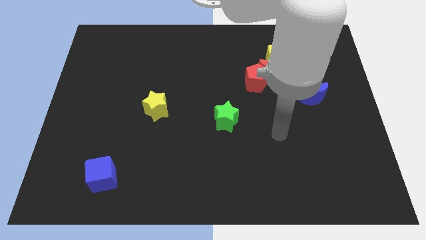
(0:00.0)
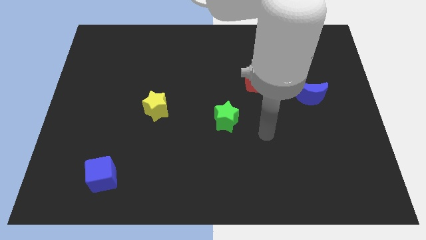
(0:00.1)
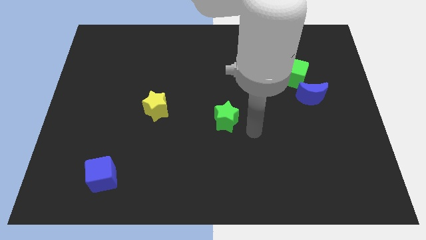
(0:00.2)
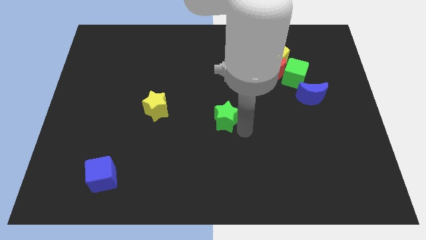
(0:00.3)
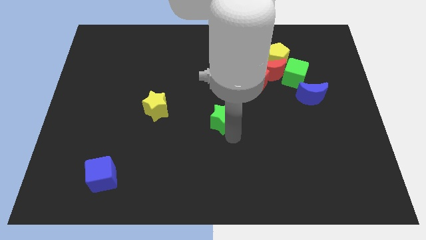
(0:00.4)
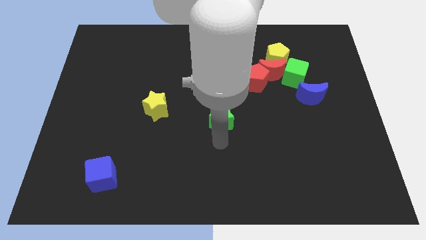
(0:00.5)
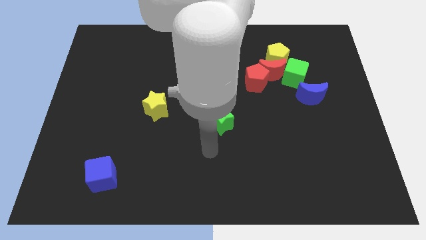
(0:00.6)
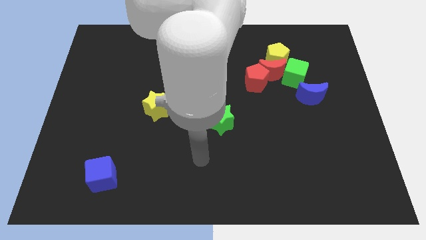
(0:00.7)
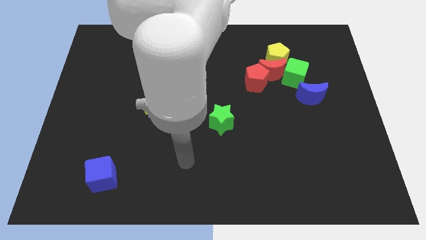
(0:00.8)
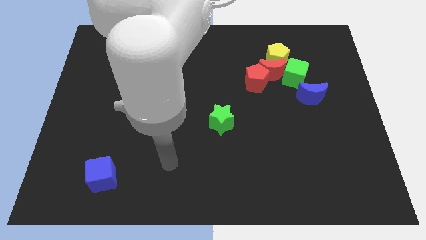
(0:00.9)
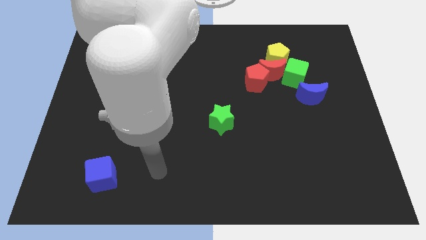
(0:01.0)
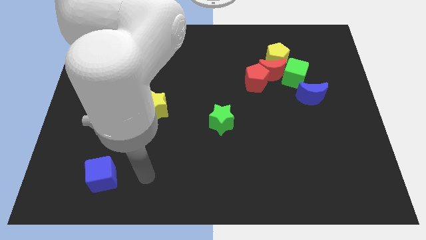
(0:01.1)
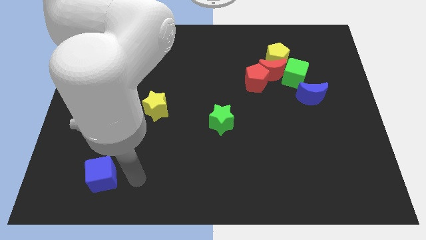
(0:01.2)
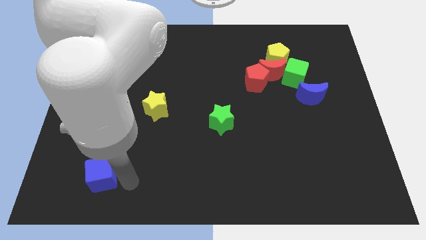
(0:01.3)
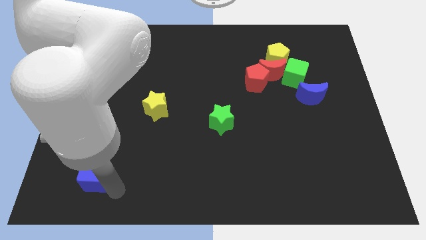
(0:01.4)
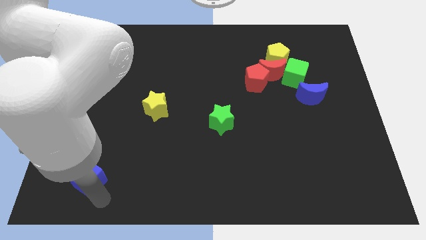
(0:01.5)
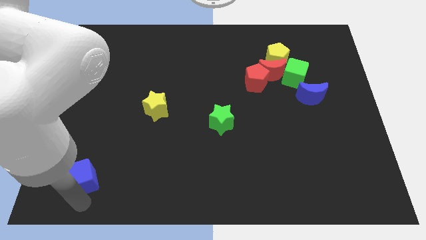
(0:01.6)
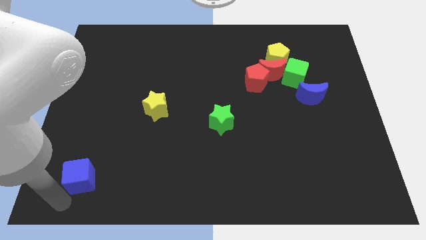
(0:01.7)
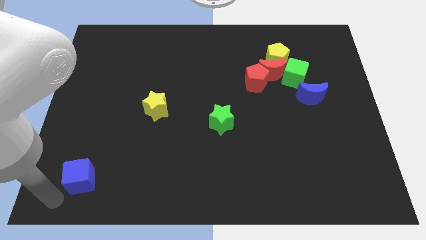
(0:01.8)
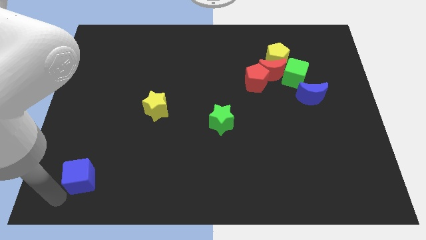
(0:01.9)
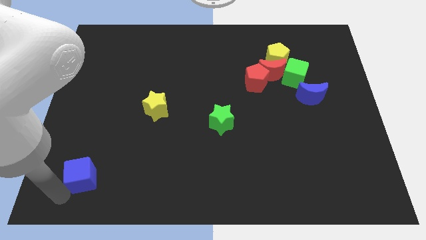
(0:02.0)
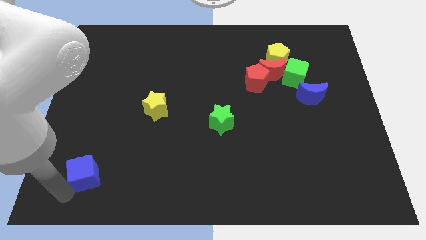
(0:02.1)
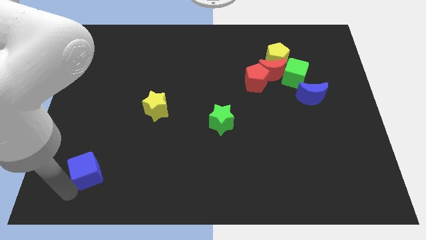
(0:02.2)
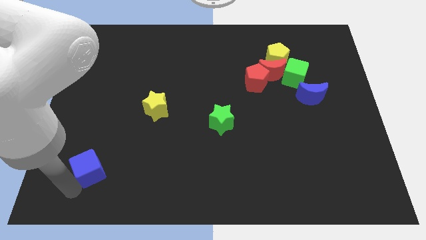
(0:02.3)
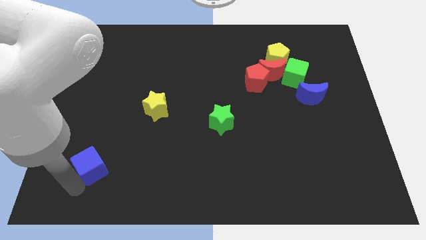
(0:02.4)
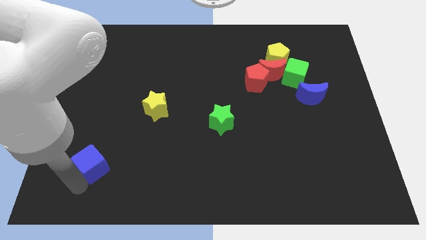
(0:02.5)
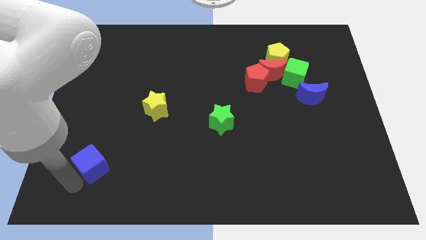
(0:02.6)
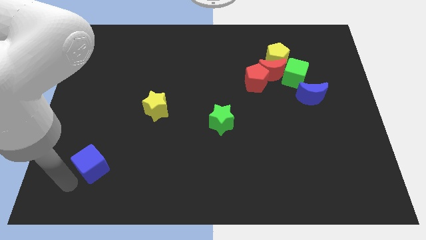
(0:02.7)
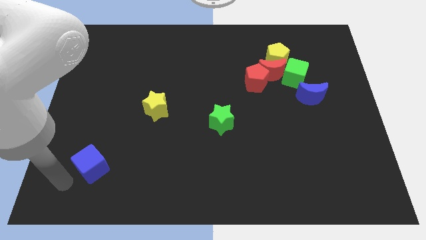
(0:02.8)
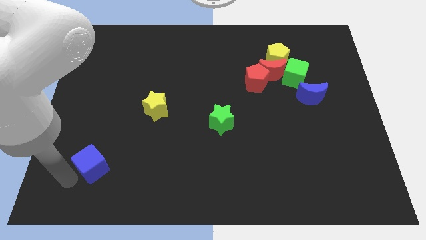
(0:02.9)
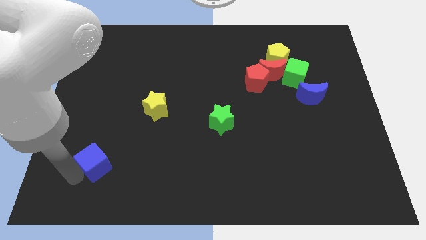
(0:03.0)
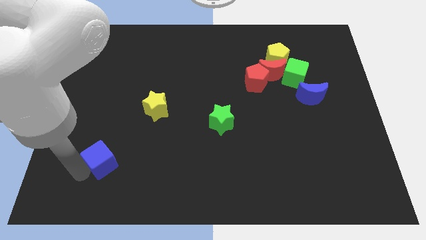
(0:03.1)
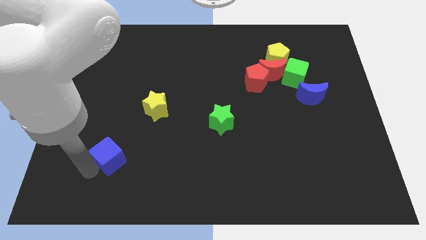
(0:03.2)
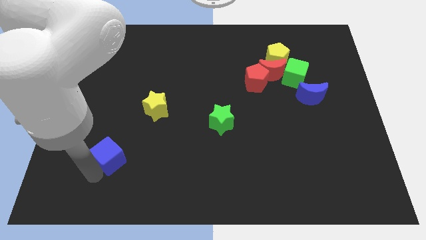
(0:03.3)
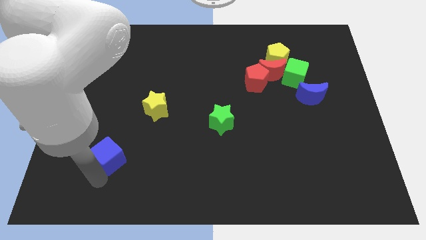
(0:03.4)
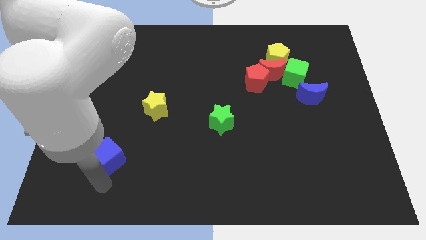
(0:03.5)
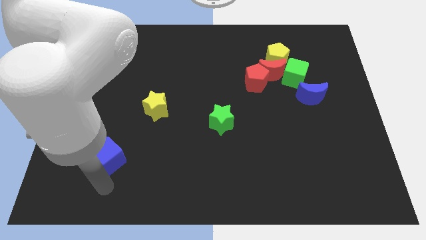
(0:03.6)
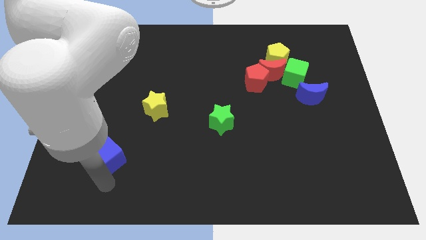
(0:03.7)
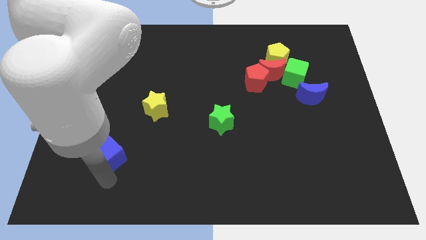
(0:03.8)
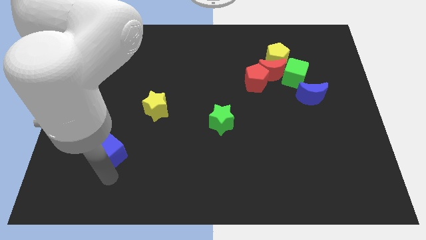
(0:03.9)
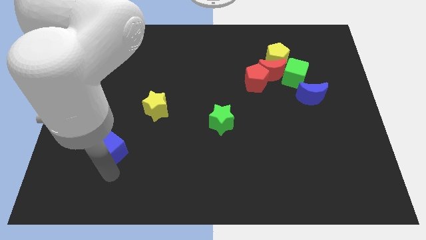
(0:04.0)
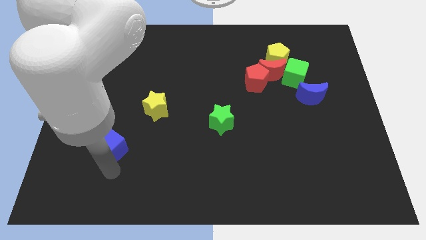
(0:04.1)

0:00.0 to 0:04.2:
slide the blue cube upwards somewhat

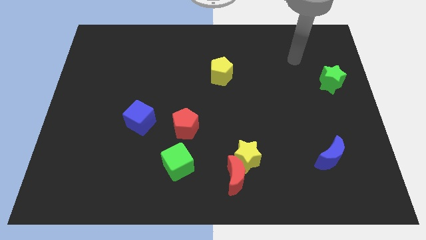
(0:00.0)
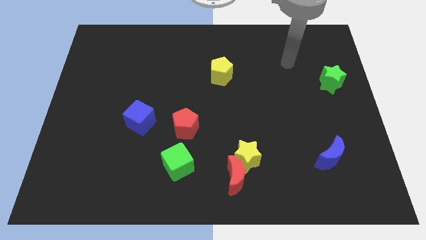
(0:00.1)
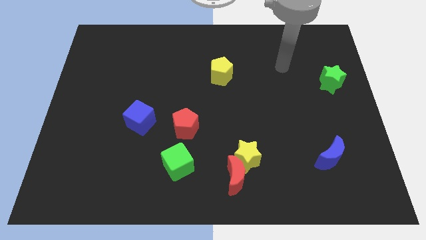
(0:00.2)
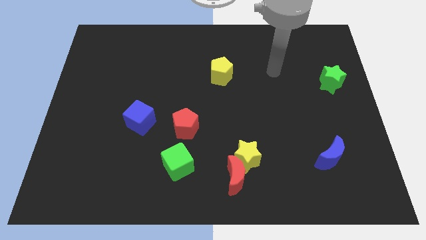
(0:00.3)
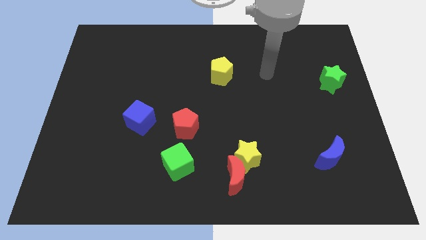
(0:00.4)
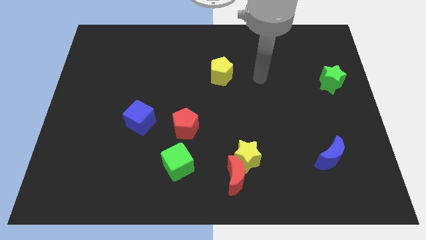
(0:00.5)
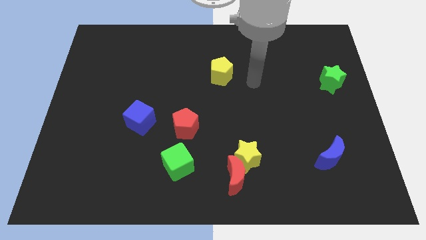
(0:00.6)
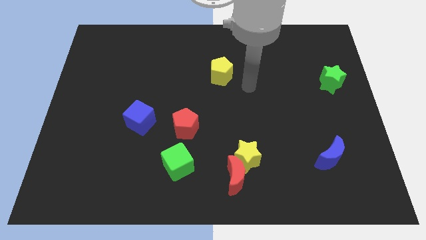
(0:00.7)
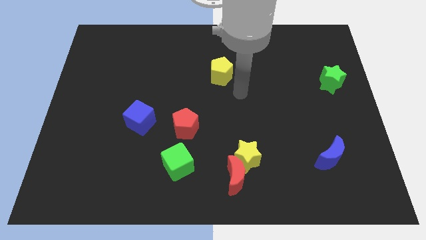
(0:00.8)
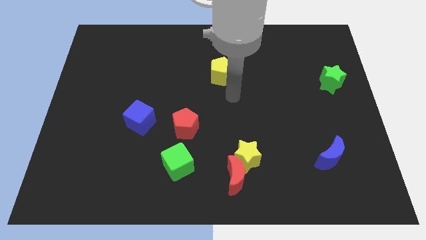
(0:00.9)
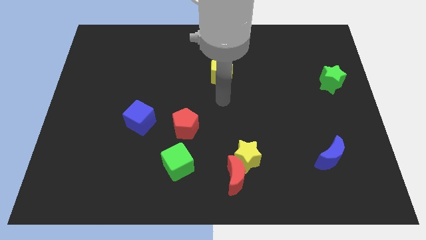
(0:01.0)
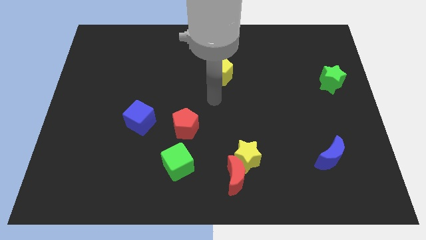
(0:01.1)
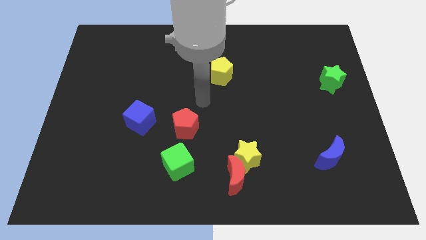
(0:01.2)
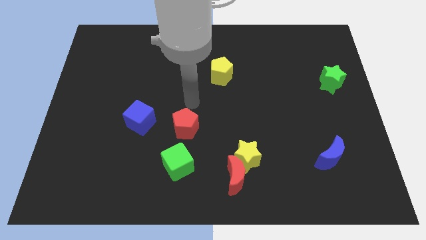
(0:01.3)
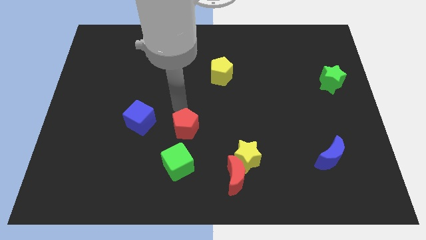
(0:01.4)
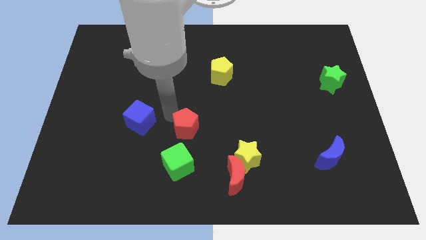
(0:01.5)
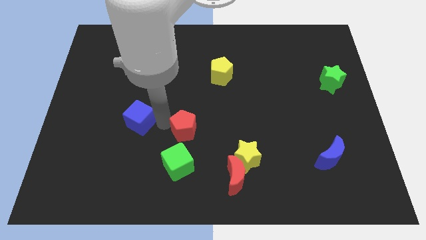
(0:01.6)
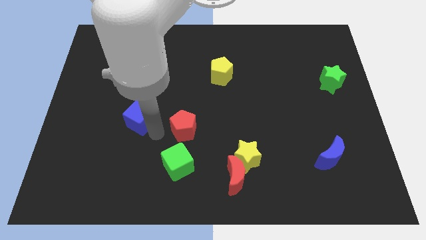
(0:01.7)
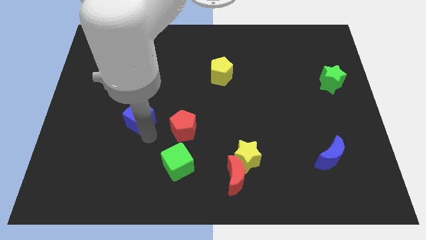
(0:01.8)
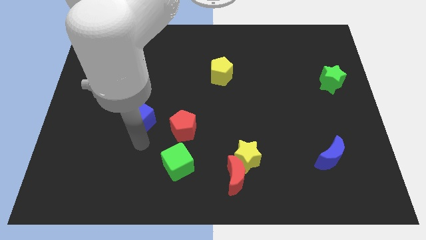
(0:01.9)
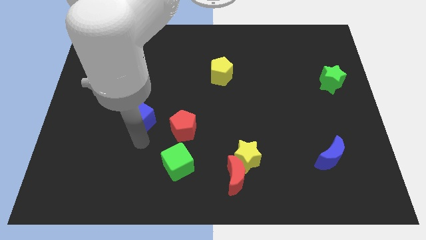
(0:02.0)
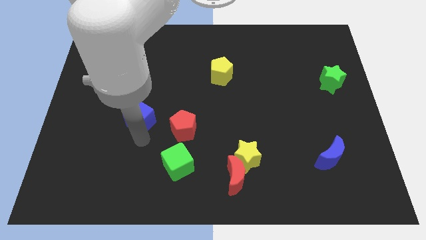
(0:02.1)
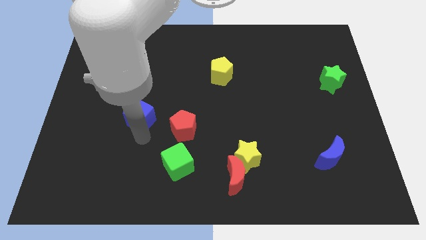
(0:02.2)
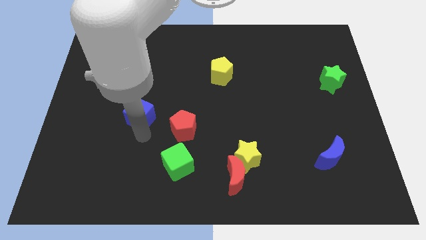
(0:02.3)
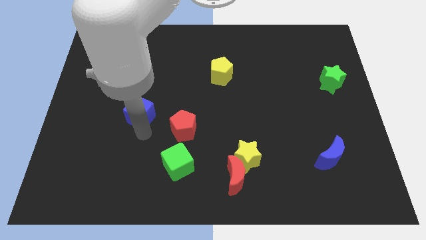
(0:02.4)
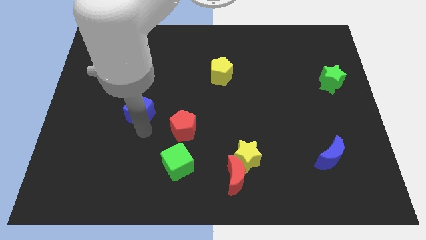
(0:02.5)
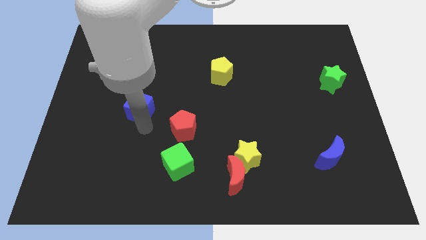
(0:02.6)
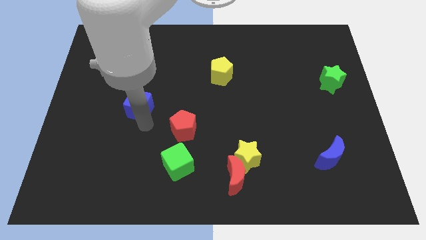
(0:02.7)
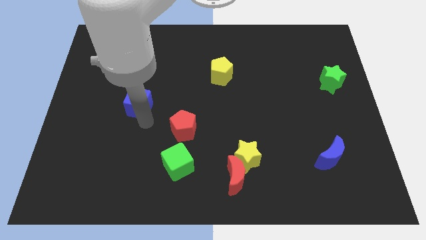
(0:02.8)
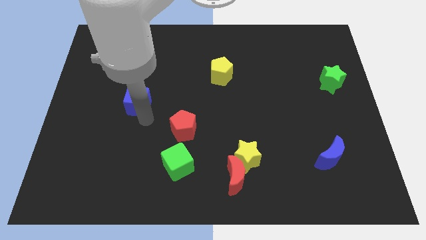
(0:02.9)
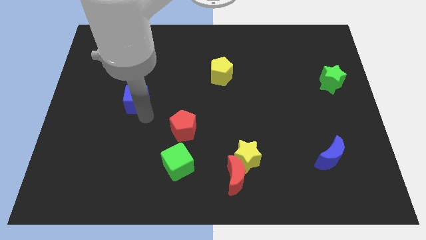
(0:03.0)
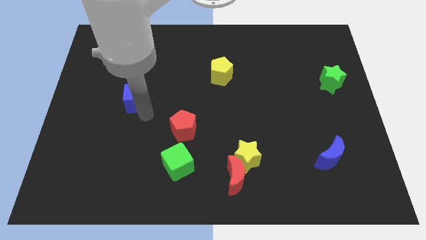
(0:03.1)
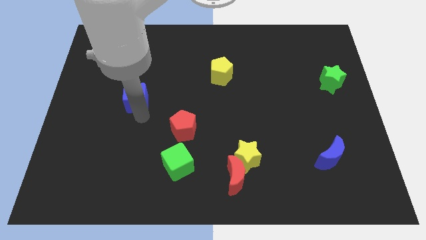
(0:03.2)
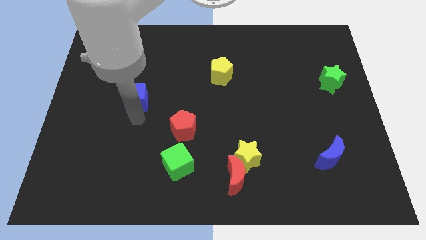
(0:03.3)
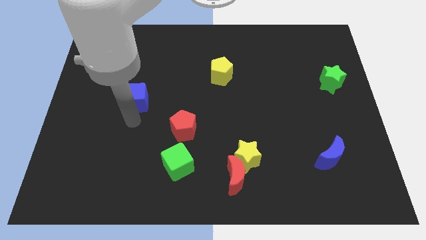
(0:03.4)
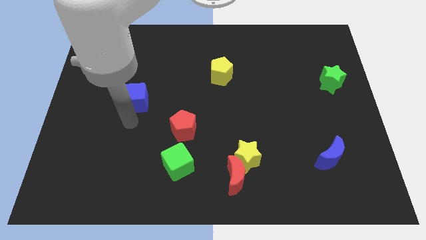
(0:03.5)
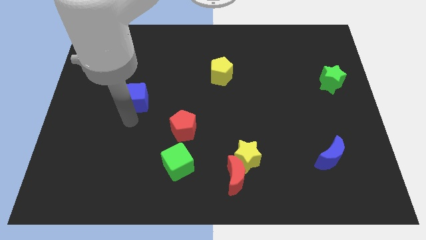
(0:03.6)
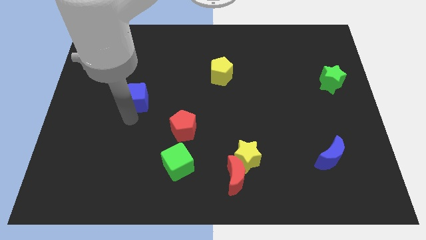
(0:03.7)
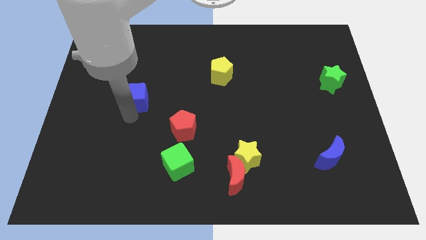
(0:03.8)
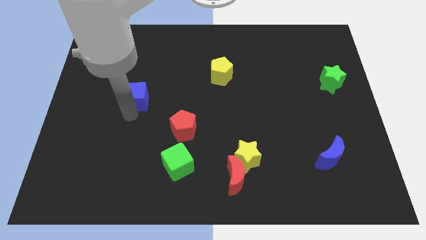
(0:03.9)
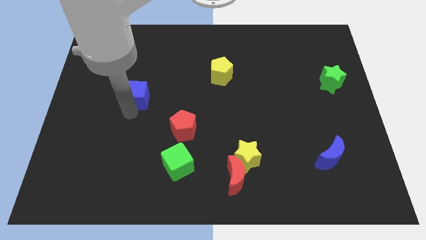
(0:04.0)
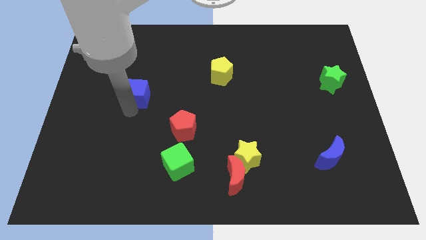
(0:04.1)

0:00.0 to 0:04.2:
move the blue cube up a little bit
